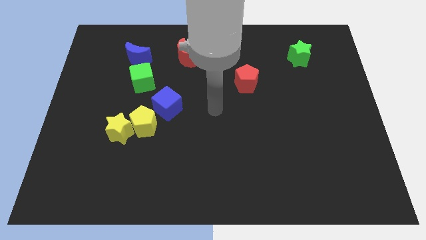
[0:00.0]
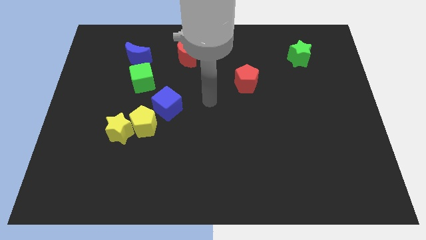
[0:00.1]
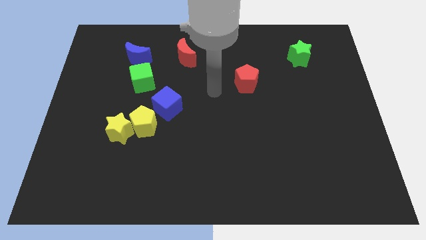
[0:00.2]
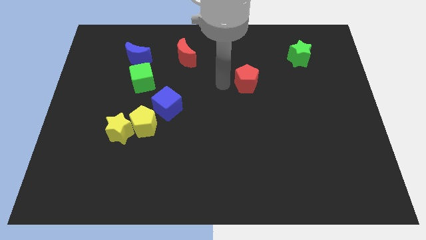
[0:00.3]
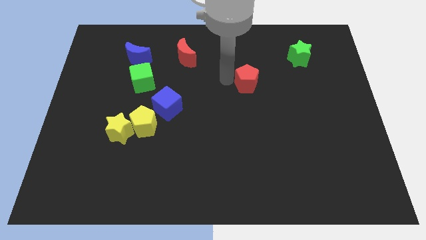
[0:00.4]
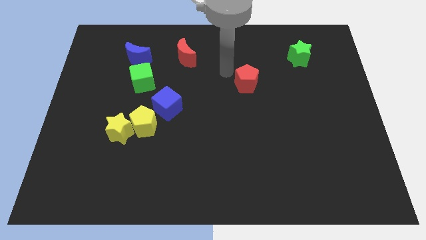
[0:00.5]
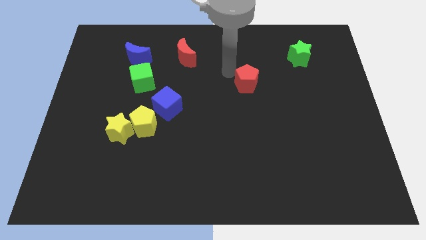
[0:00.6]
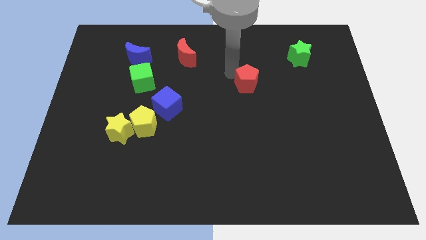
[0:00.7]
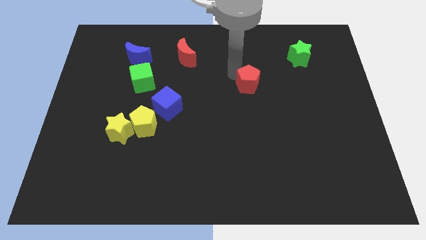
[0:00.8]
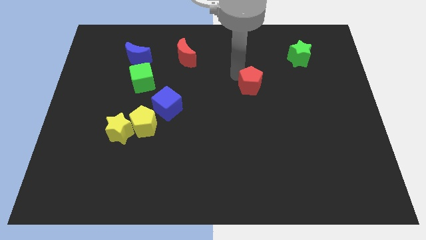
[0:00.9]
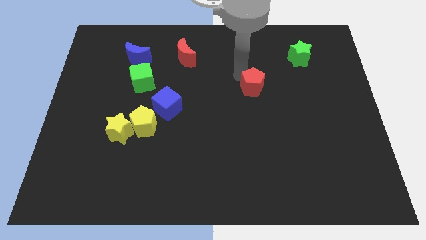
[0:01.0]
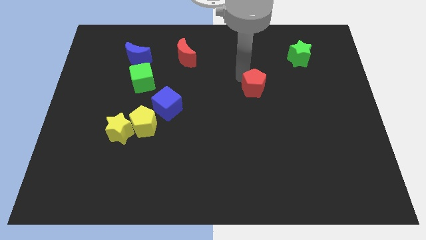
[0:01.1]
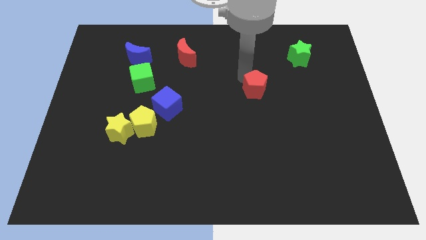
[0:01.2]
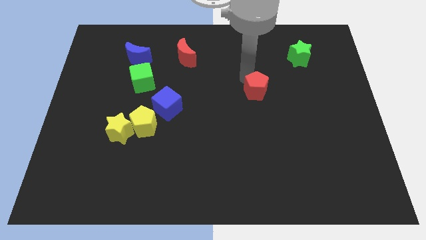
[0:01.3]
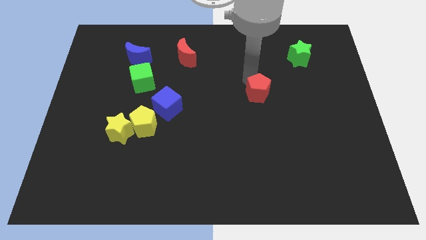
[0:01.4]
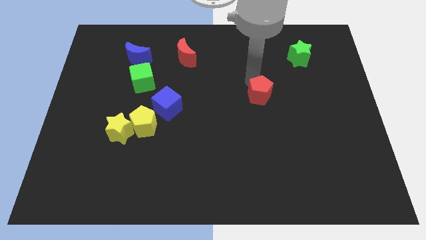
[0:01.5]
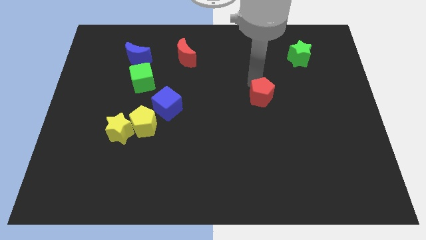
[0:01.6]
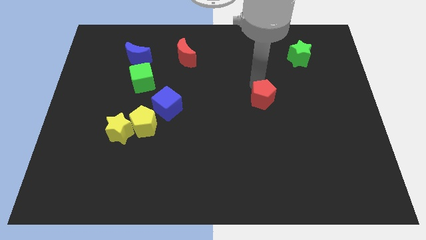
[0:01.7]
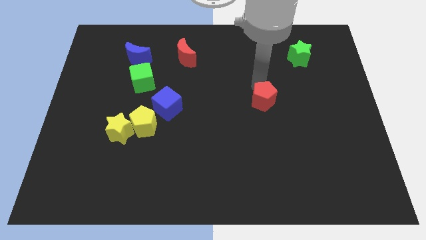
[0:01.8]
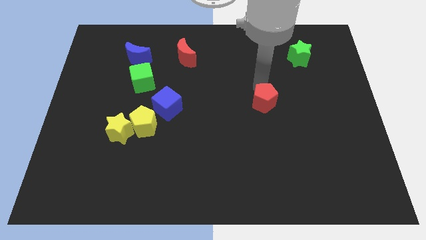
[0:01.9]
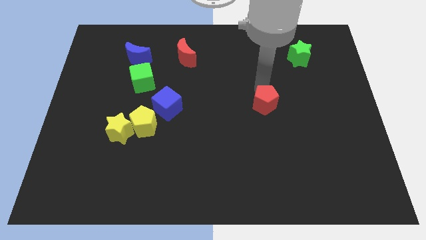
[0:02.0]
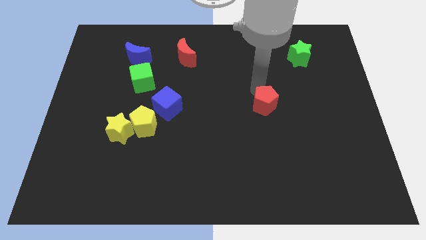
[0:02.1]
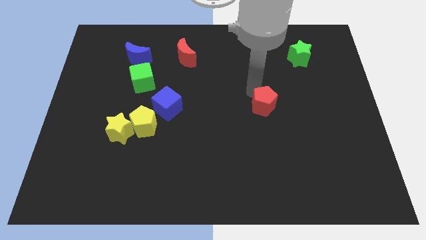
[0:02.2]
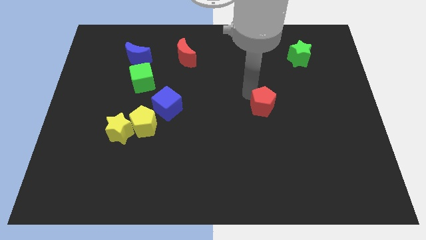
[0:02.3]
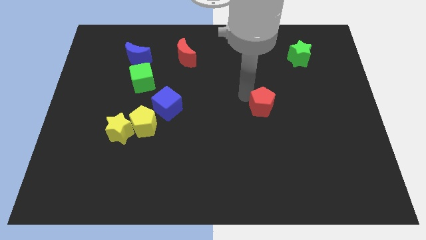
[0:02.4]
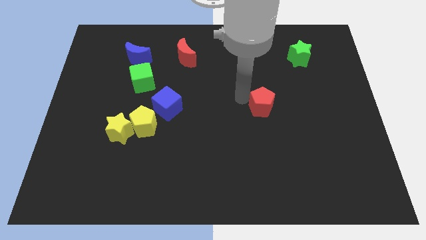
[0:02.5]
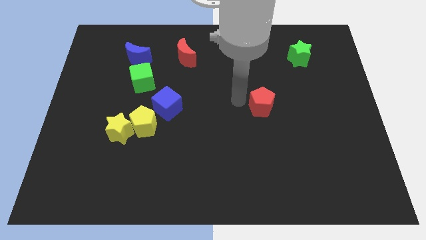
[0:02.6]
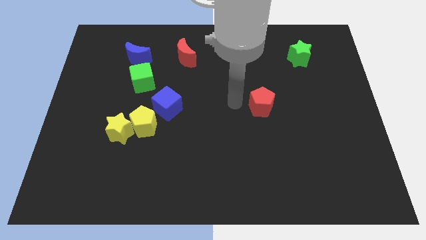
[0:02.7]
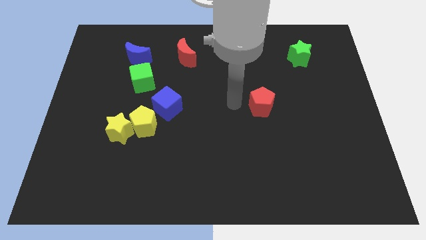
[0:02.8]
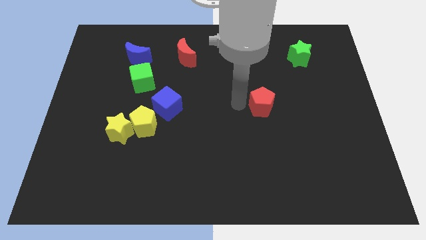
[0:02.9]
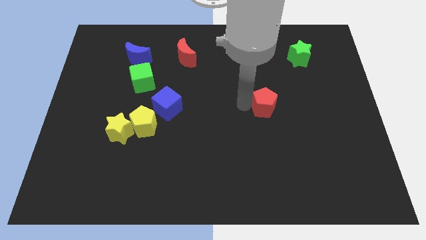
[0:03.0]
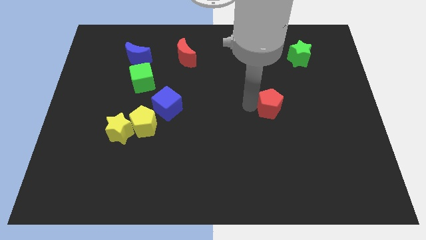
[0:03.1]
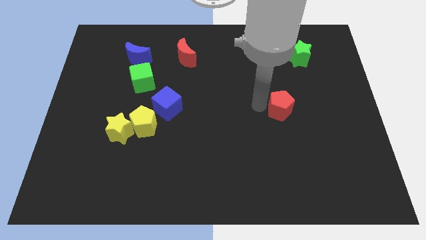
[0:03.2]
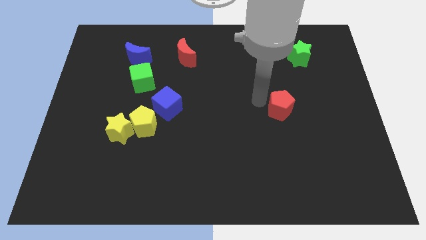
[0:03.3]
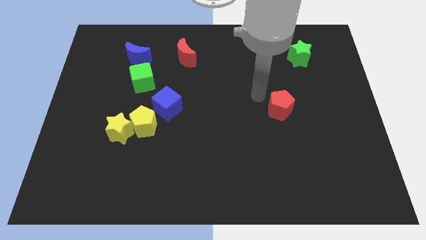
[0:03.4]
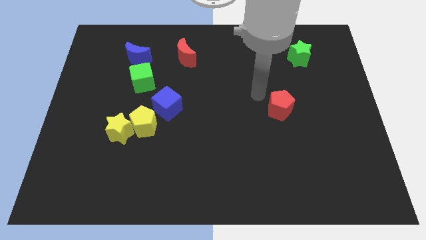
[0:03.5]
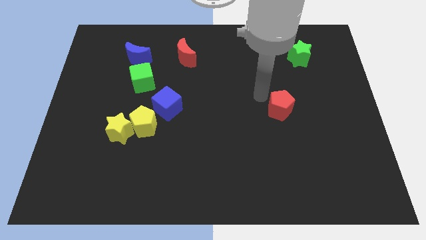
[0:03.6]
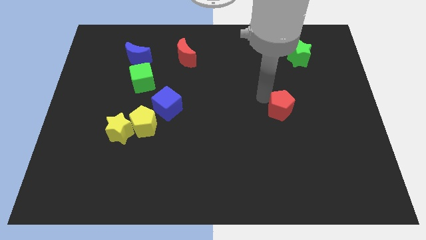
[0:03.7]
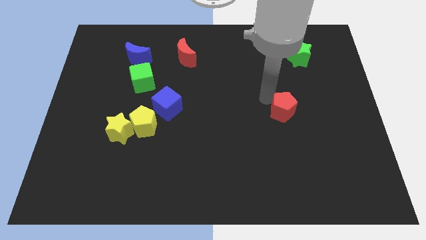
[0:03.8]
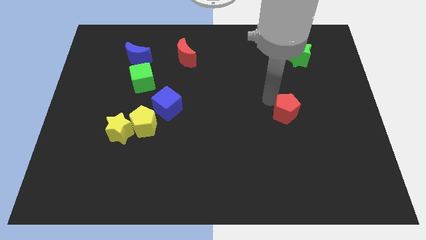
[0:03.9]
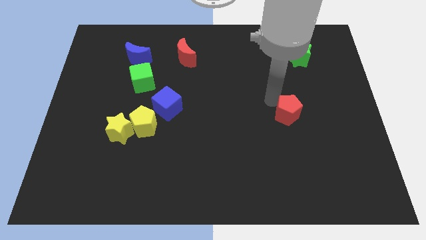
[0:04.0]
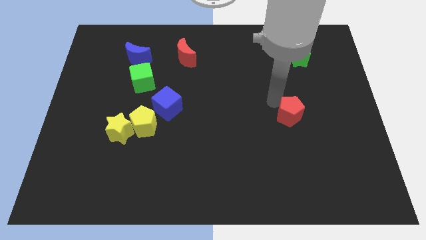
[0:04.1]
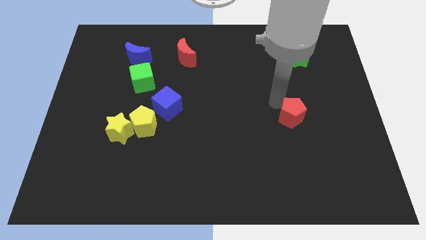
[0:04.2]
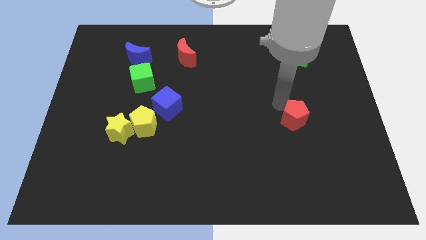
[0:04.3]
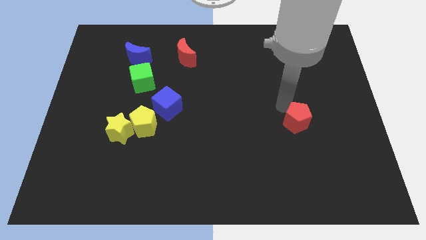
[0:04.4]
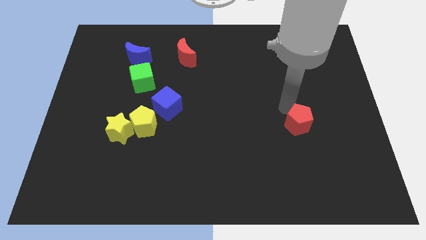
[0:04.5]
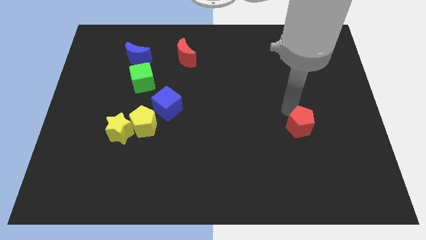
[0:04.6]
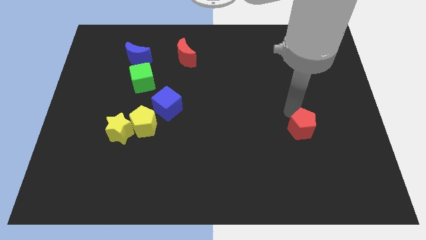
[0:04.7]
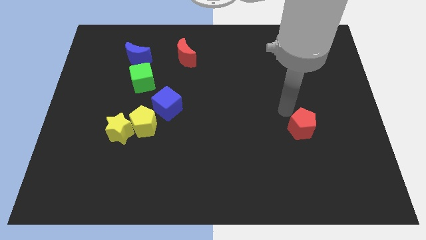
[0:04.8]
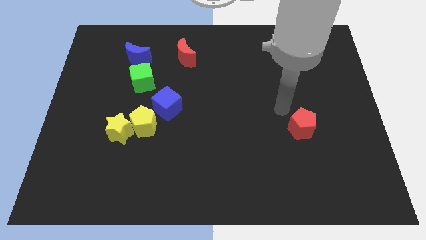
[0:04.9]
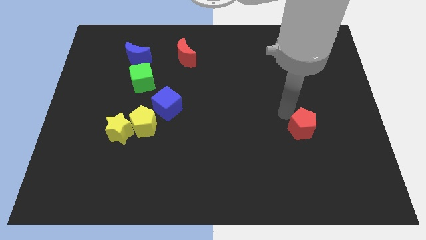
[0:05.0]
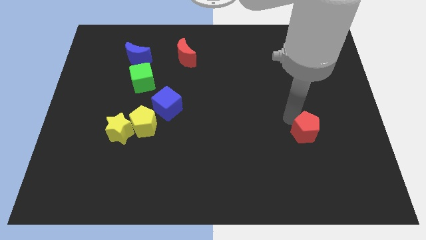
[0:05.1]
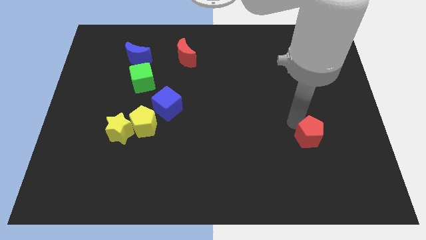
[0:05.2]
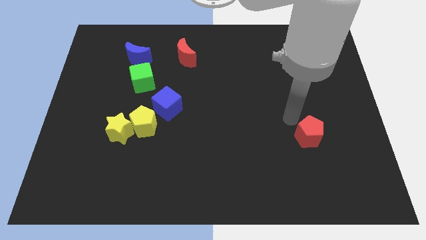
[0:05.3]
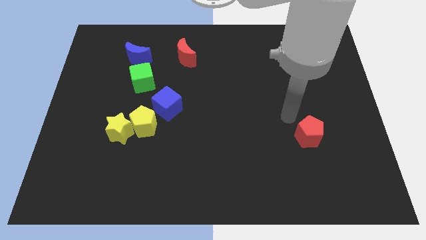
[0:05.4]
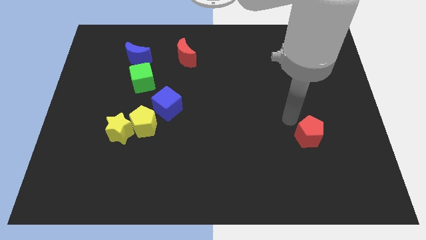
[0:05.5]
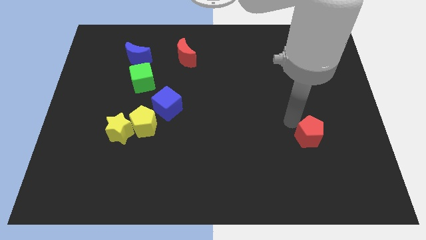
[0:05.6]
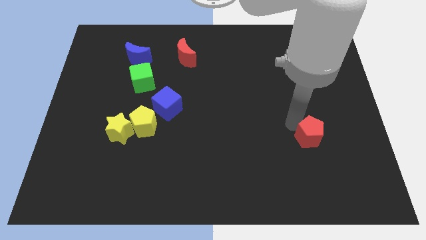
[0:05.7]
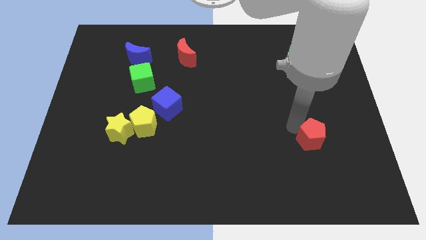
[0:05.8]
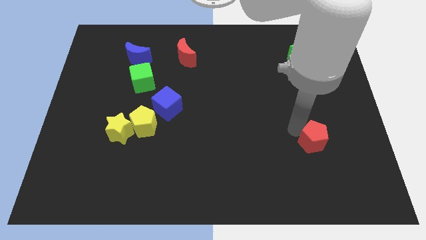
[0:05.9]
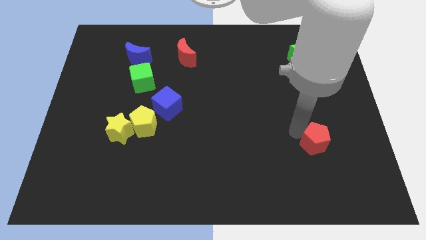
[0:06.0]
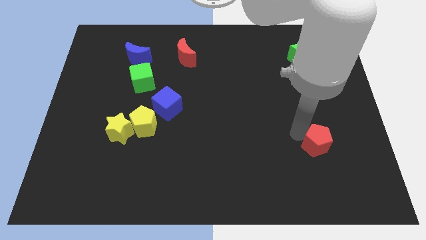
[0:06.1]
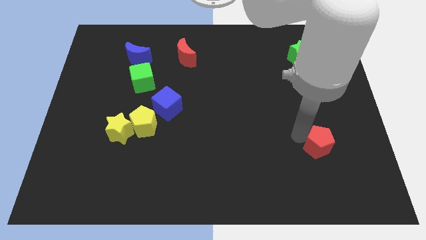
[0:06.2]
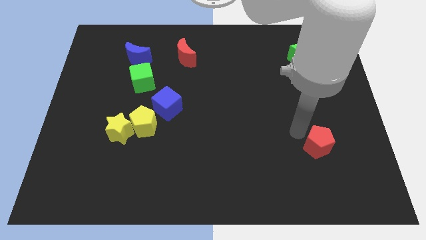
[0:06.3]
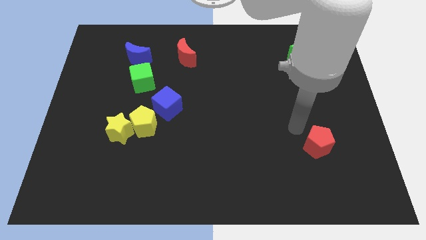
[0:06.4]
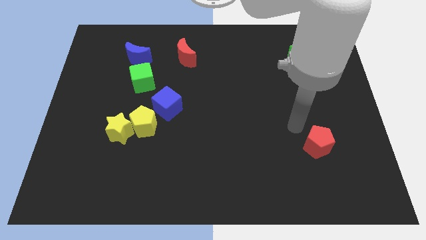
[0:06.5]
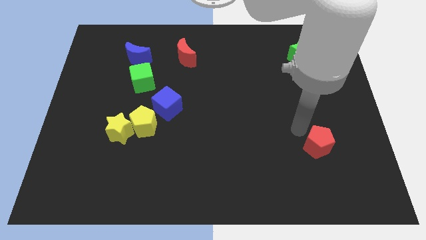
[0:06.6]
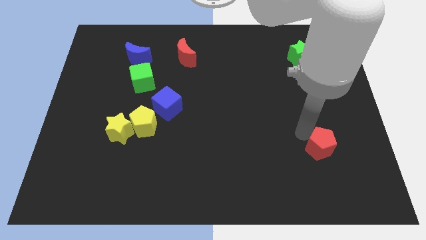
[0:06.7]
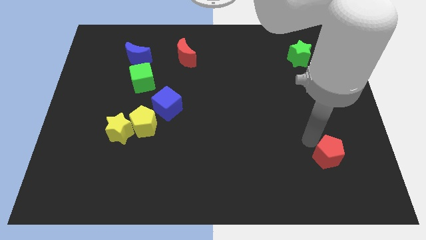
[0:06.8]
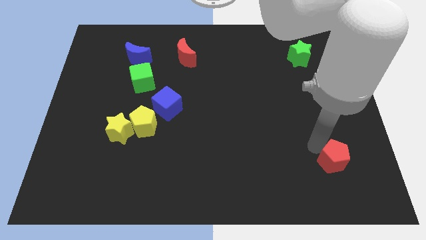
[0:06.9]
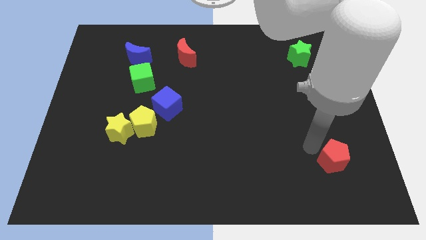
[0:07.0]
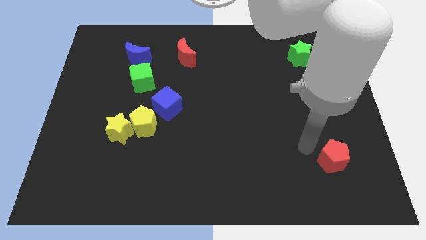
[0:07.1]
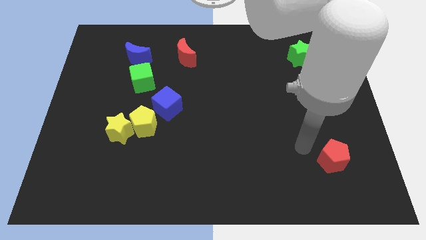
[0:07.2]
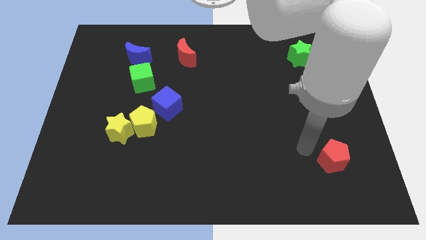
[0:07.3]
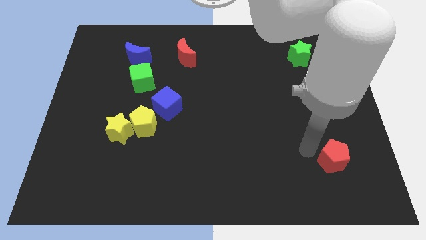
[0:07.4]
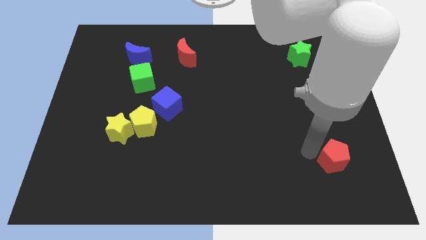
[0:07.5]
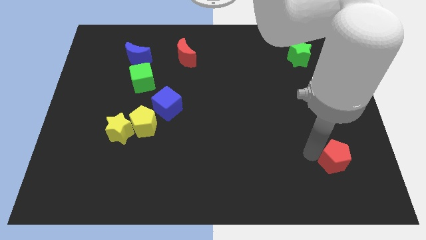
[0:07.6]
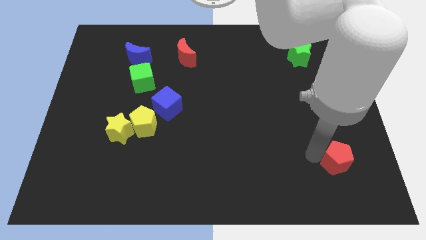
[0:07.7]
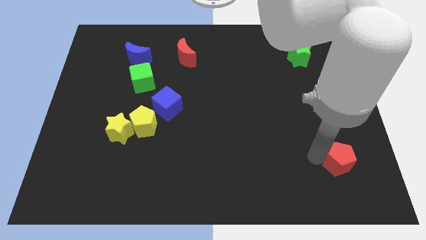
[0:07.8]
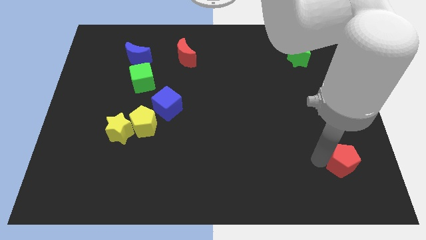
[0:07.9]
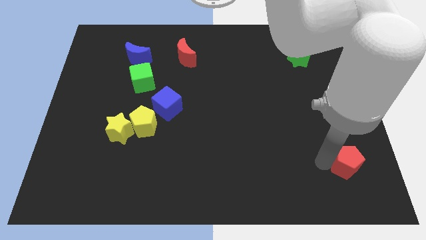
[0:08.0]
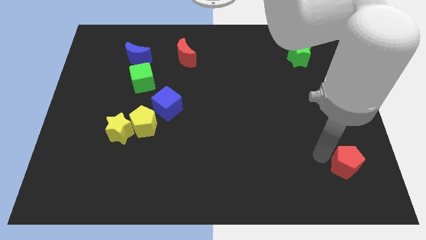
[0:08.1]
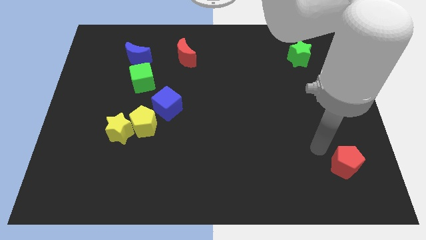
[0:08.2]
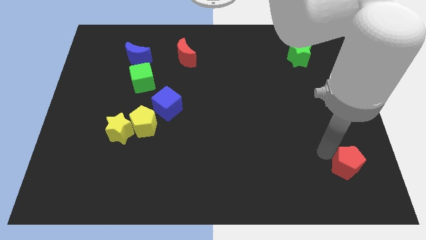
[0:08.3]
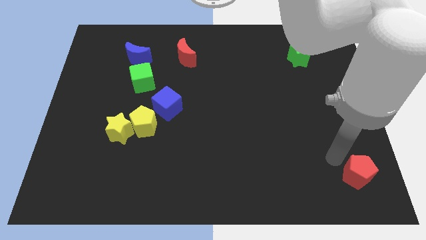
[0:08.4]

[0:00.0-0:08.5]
push the red pentagon to the bottom right of the board
